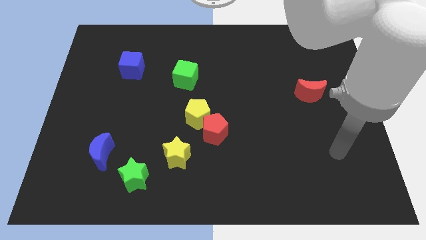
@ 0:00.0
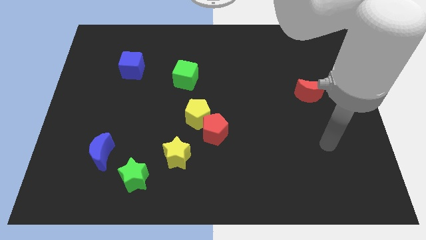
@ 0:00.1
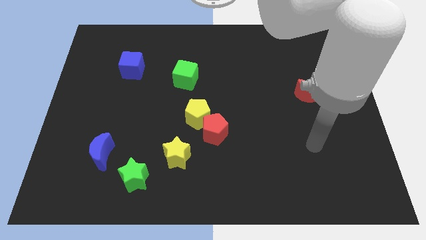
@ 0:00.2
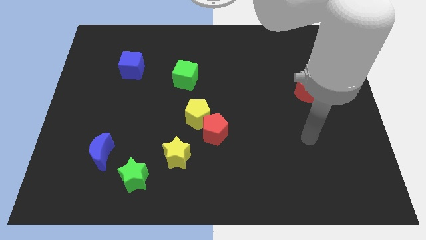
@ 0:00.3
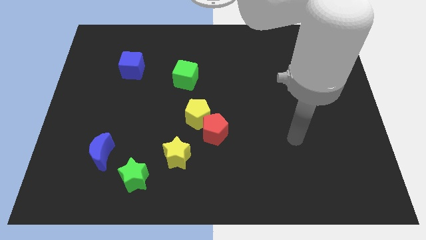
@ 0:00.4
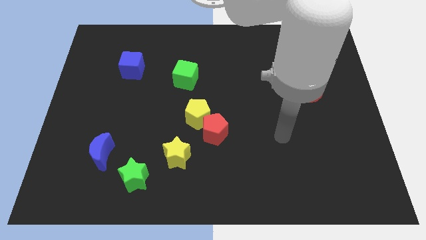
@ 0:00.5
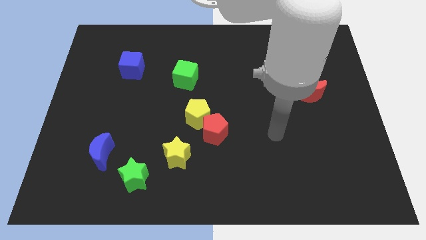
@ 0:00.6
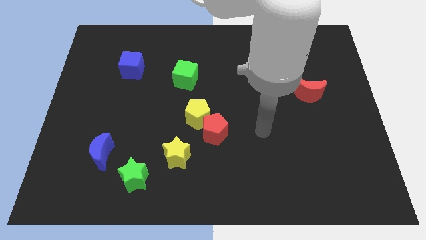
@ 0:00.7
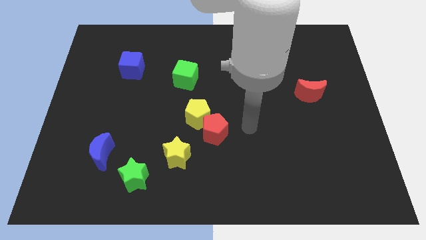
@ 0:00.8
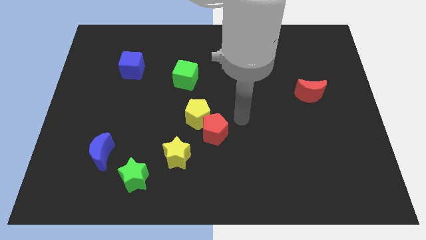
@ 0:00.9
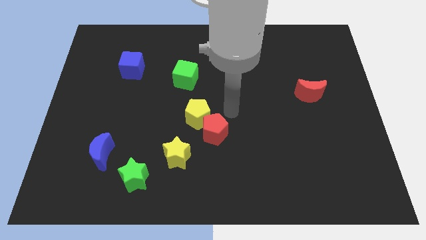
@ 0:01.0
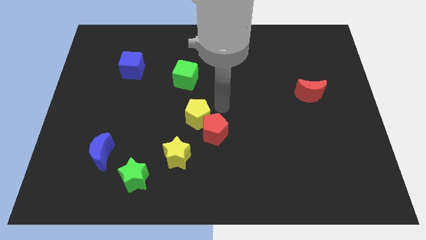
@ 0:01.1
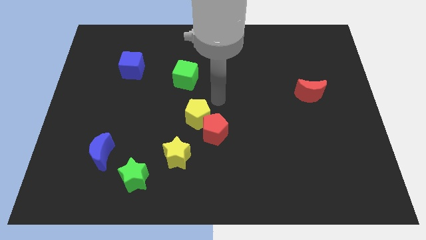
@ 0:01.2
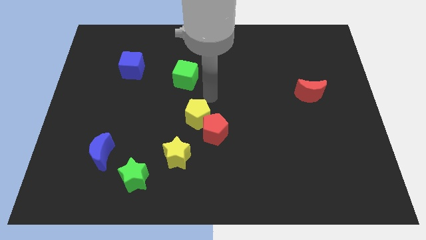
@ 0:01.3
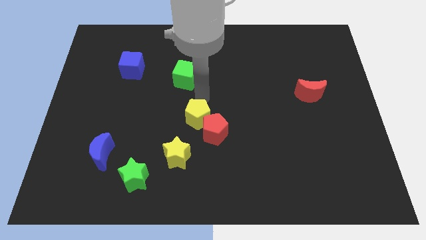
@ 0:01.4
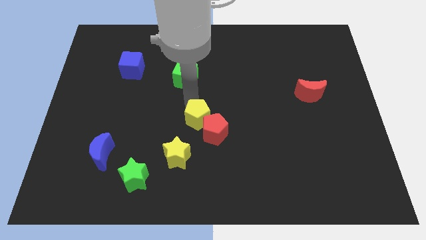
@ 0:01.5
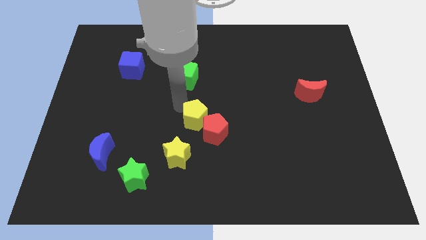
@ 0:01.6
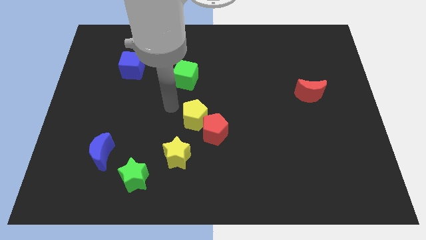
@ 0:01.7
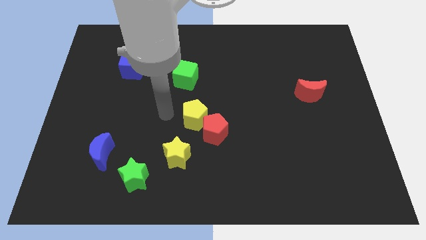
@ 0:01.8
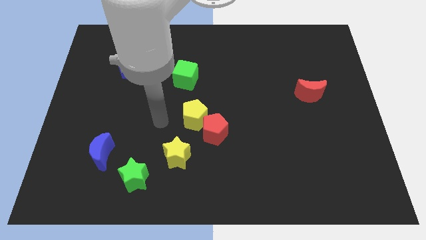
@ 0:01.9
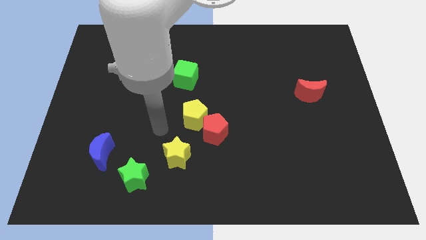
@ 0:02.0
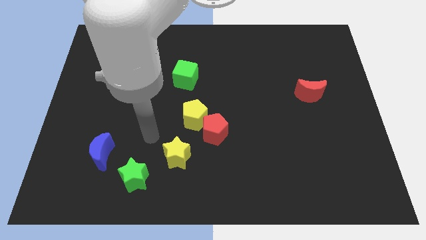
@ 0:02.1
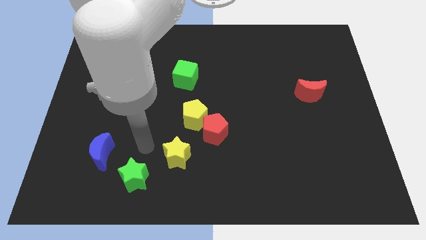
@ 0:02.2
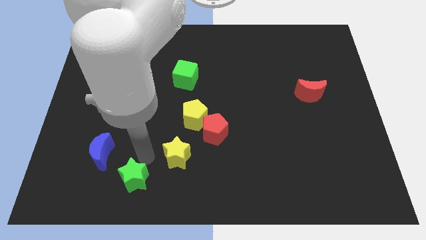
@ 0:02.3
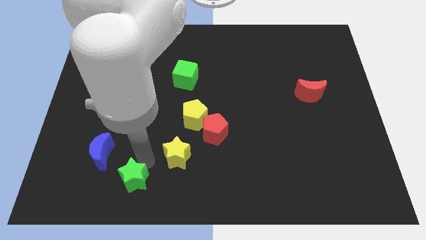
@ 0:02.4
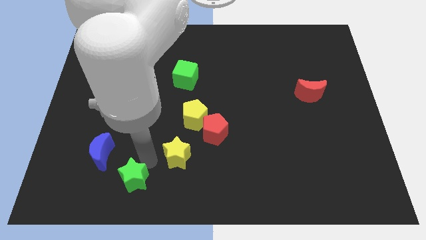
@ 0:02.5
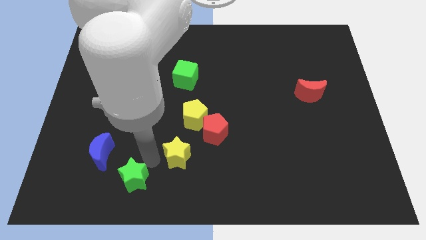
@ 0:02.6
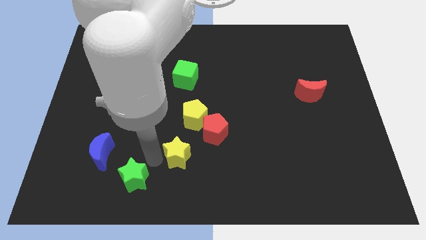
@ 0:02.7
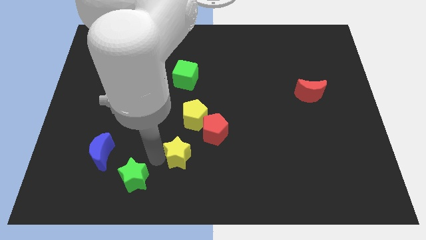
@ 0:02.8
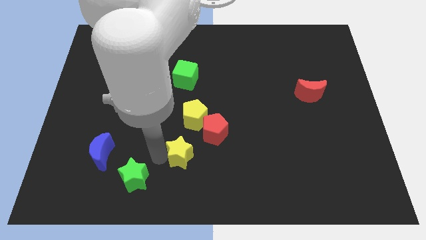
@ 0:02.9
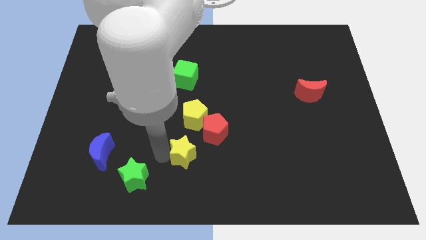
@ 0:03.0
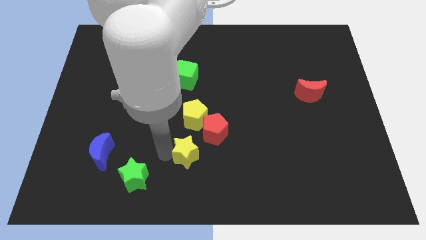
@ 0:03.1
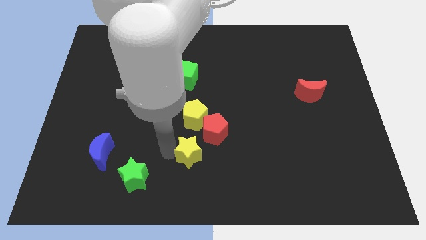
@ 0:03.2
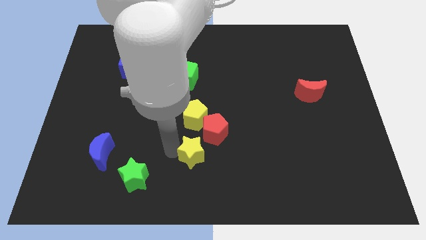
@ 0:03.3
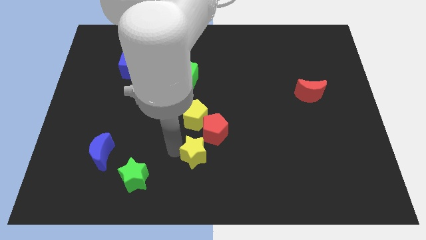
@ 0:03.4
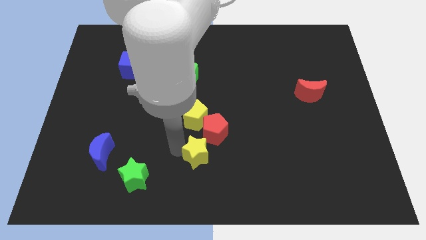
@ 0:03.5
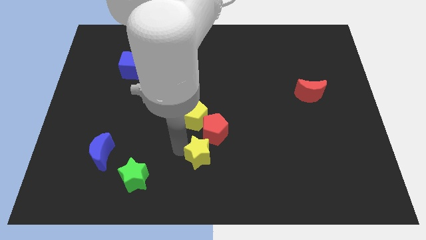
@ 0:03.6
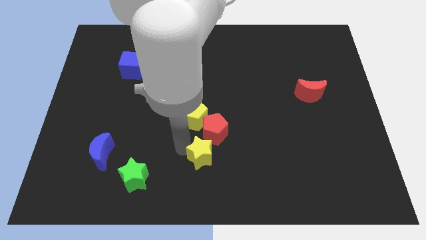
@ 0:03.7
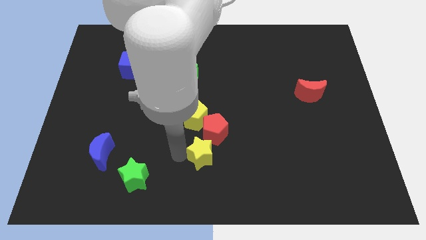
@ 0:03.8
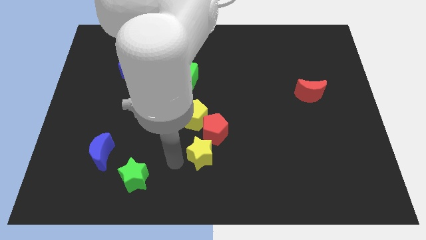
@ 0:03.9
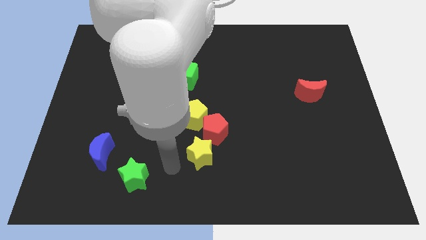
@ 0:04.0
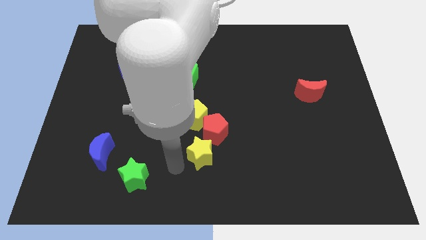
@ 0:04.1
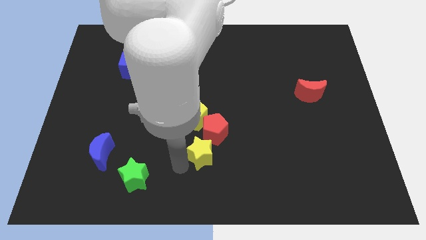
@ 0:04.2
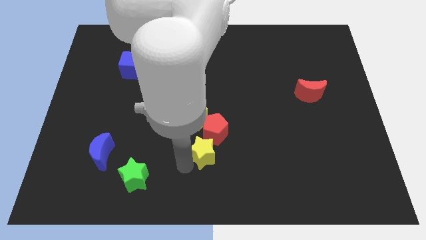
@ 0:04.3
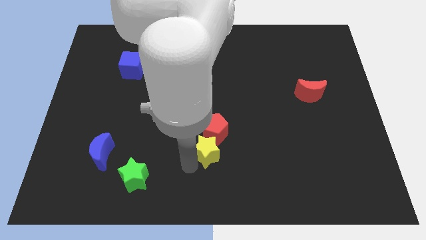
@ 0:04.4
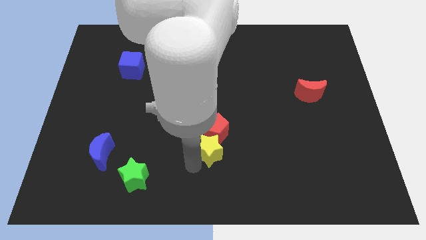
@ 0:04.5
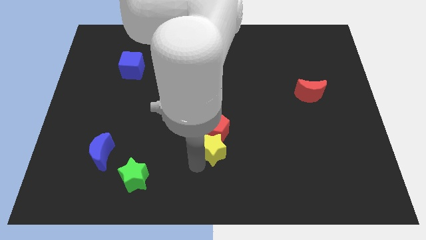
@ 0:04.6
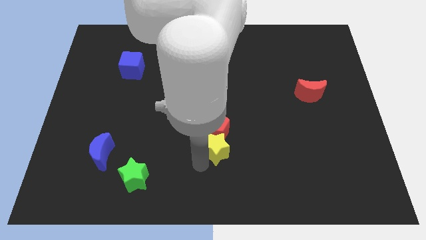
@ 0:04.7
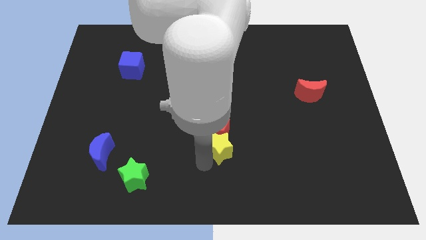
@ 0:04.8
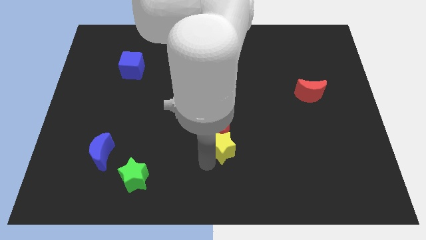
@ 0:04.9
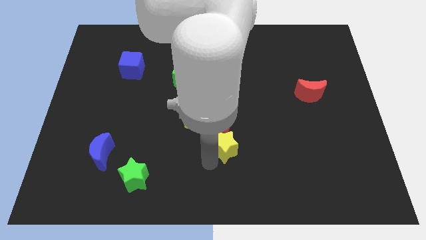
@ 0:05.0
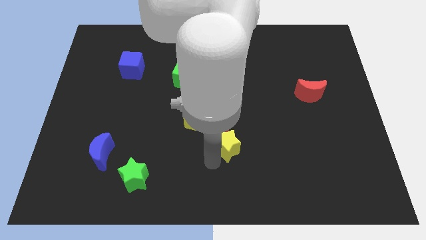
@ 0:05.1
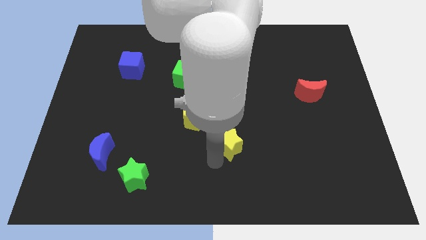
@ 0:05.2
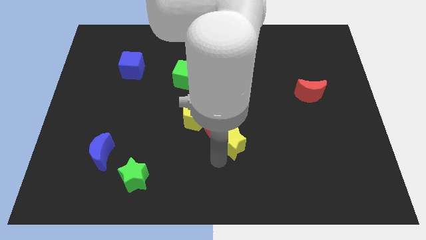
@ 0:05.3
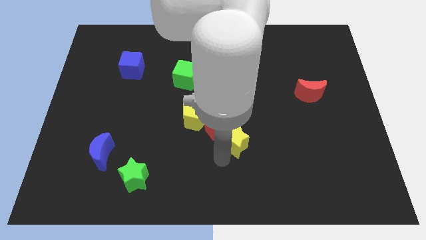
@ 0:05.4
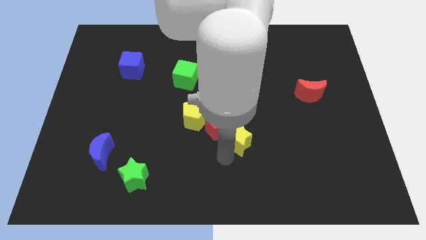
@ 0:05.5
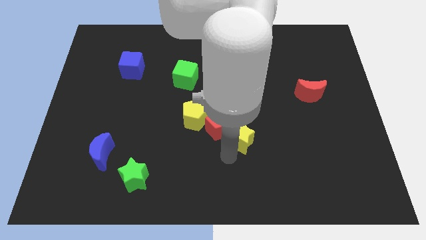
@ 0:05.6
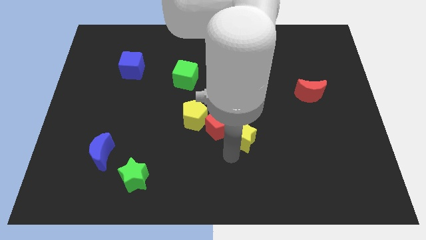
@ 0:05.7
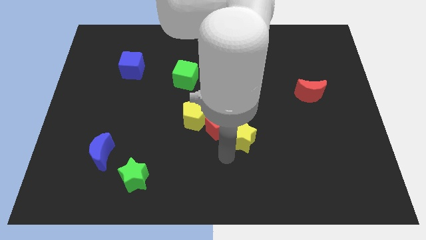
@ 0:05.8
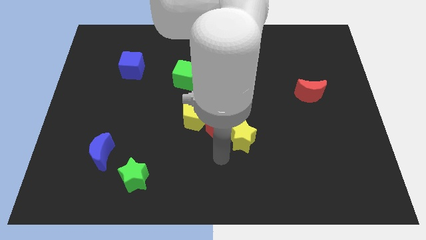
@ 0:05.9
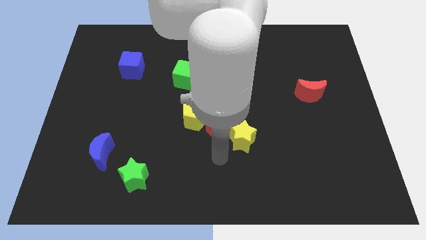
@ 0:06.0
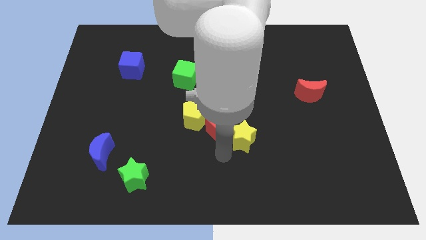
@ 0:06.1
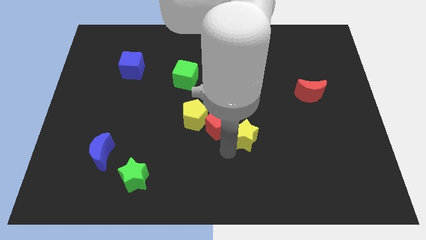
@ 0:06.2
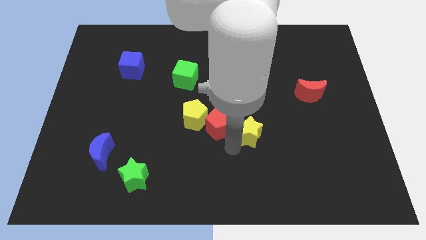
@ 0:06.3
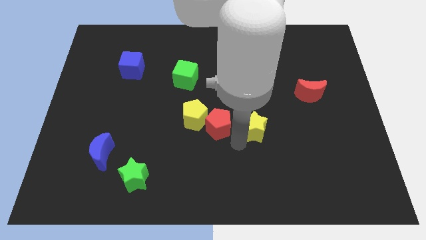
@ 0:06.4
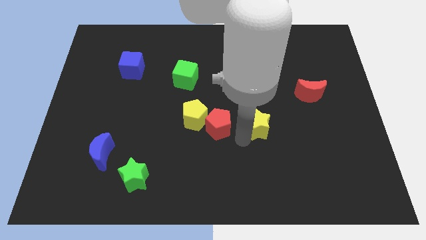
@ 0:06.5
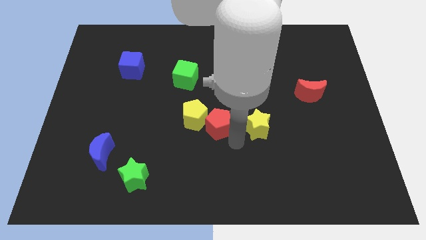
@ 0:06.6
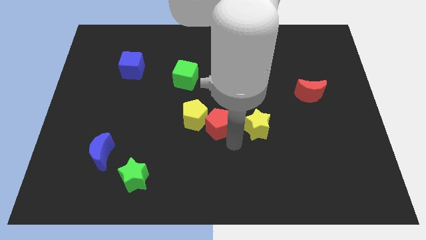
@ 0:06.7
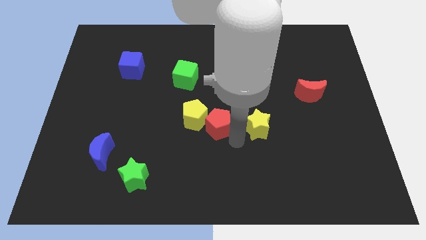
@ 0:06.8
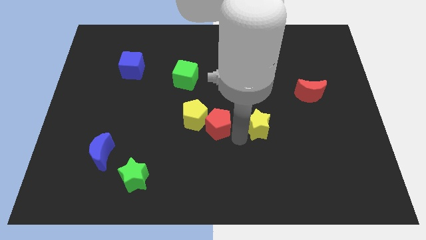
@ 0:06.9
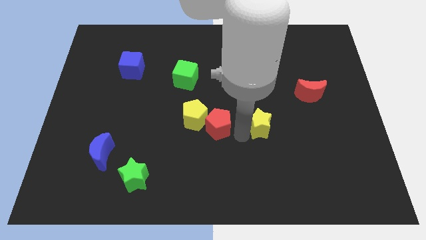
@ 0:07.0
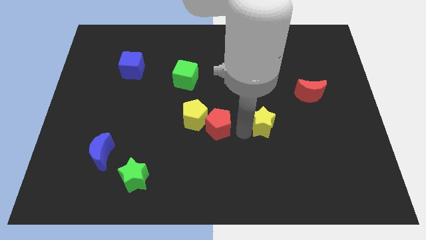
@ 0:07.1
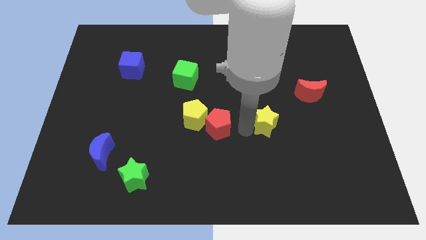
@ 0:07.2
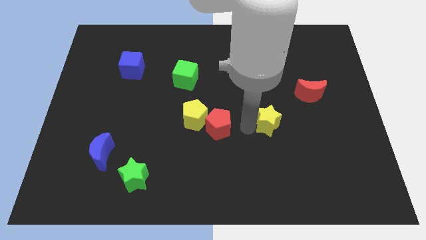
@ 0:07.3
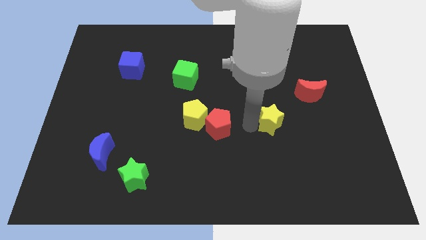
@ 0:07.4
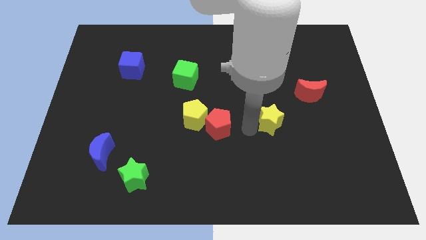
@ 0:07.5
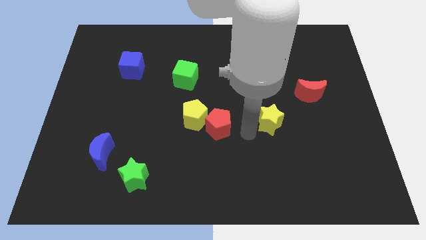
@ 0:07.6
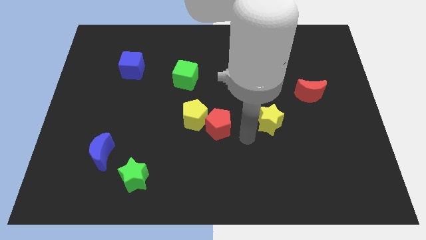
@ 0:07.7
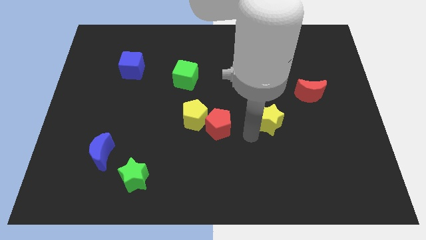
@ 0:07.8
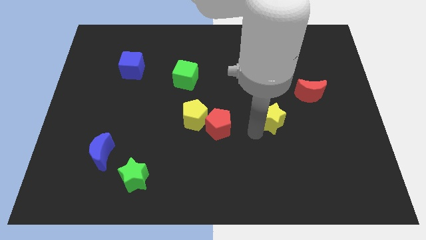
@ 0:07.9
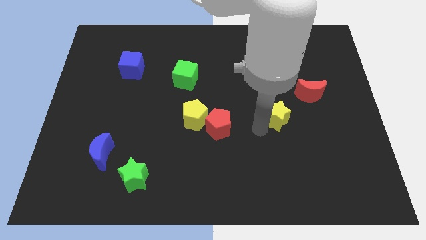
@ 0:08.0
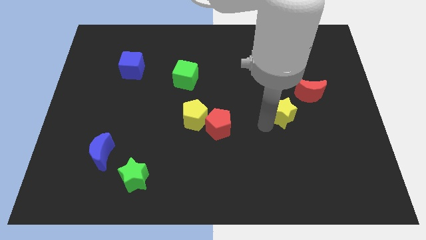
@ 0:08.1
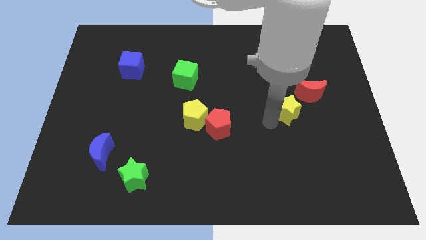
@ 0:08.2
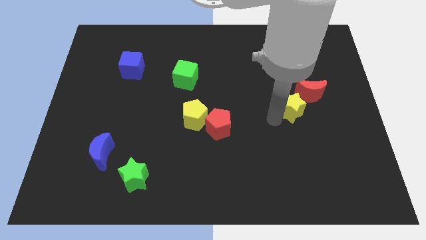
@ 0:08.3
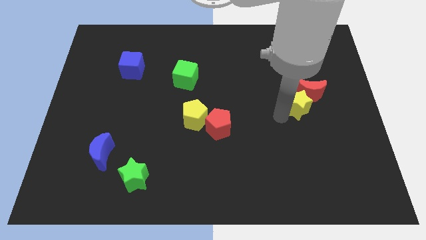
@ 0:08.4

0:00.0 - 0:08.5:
move the yellow star next to the red moon
